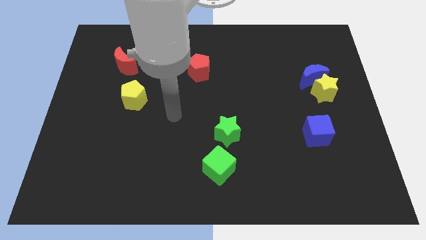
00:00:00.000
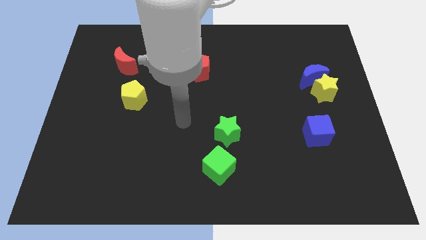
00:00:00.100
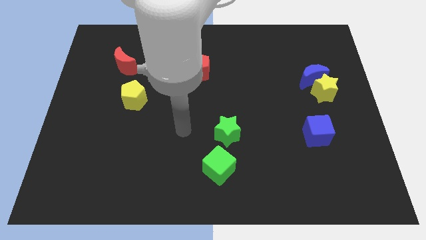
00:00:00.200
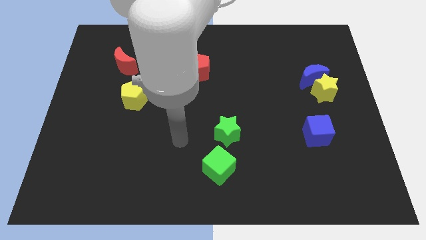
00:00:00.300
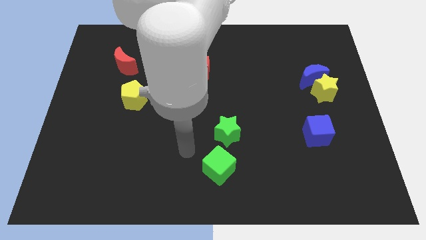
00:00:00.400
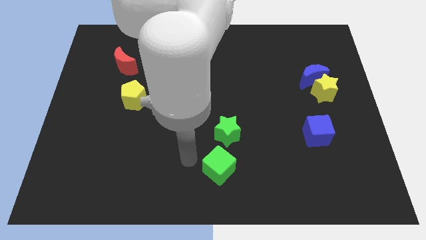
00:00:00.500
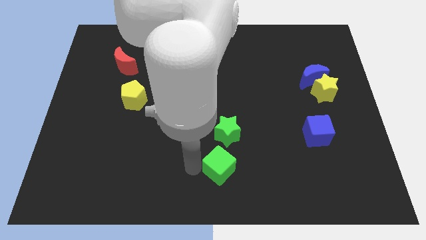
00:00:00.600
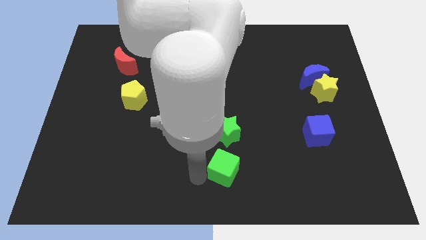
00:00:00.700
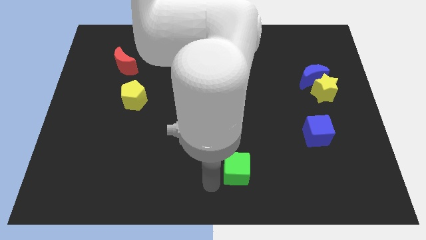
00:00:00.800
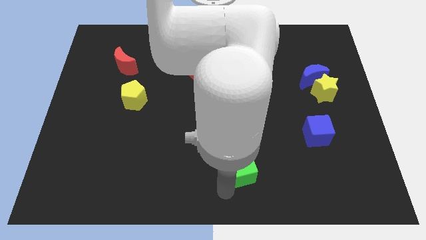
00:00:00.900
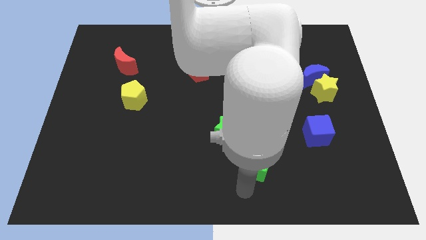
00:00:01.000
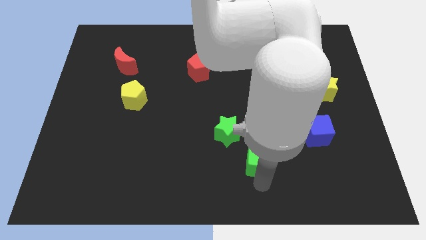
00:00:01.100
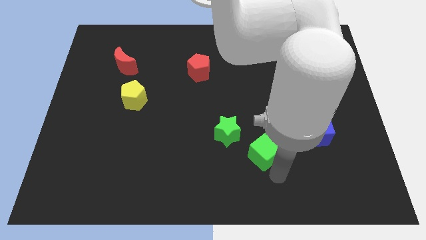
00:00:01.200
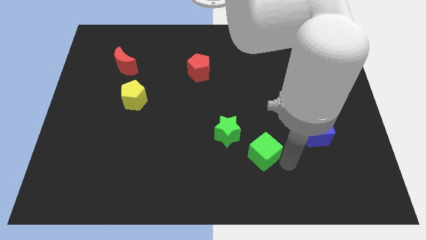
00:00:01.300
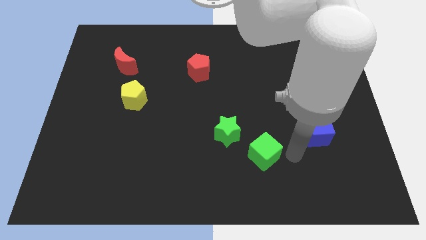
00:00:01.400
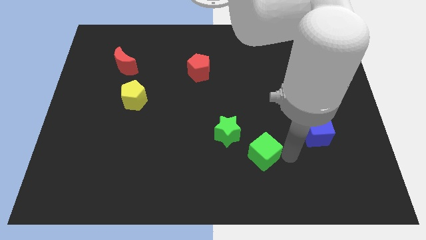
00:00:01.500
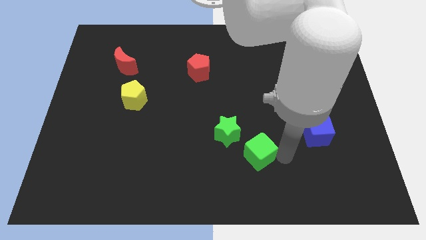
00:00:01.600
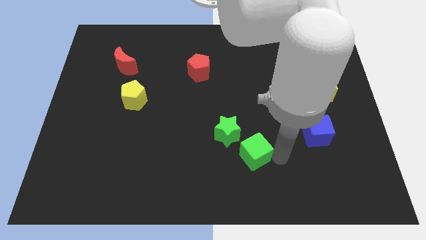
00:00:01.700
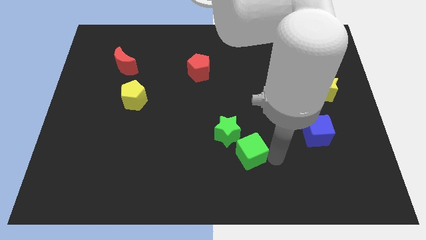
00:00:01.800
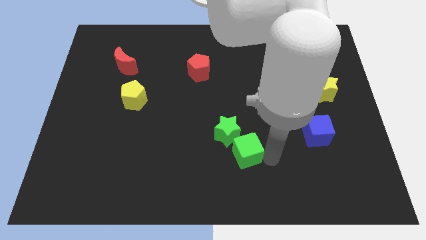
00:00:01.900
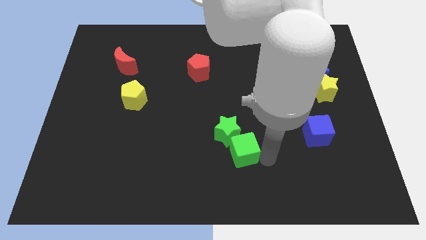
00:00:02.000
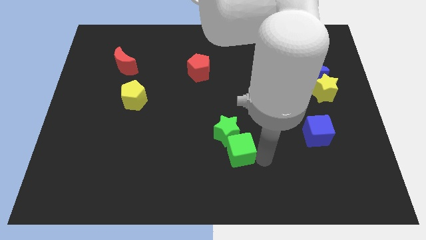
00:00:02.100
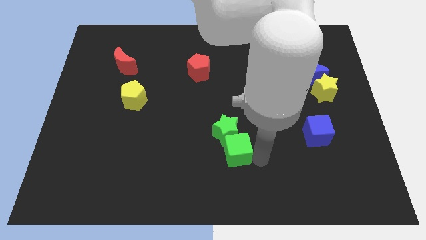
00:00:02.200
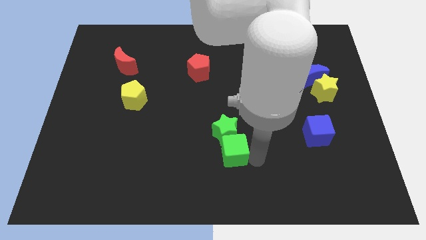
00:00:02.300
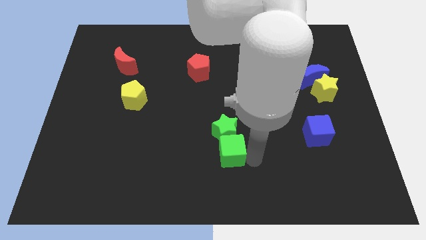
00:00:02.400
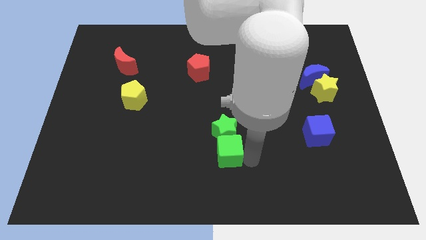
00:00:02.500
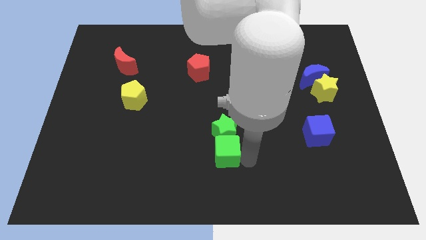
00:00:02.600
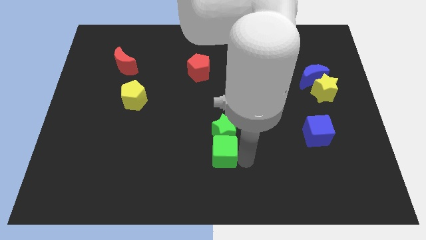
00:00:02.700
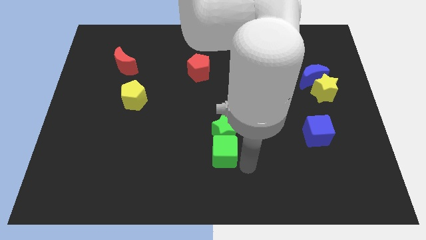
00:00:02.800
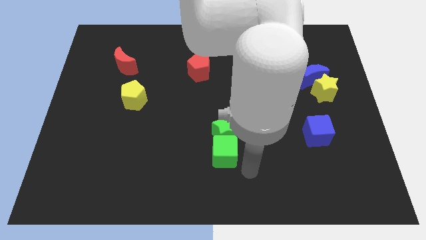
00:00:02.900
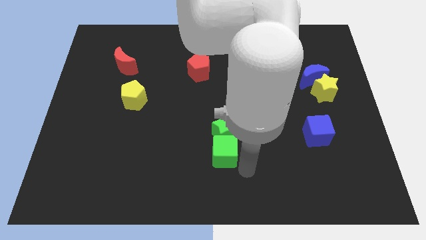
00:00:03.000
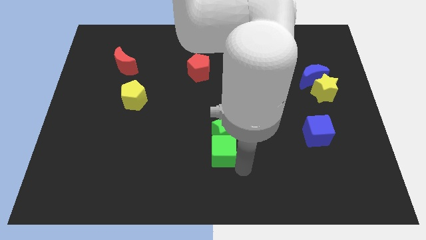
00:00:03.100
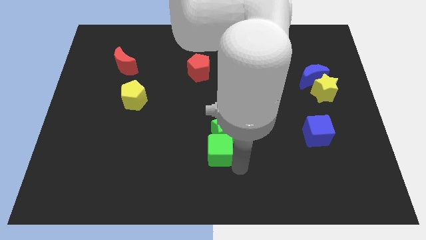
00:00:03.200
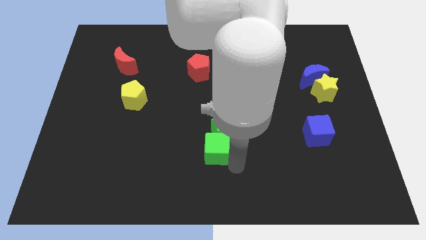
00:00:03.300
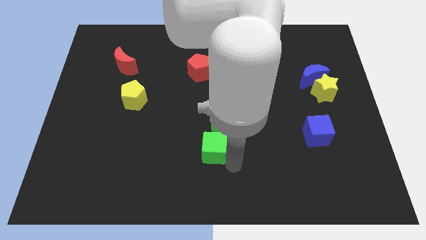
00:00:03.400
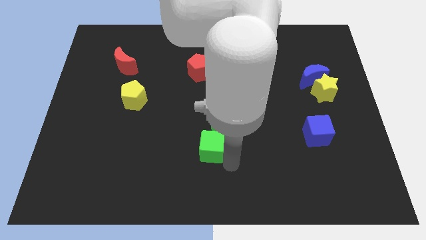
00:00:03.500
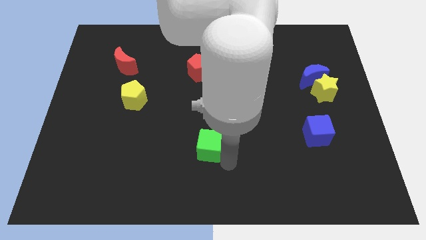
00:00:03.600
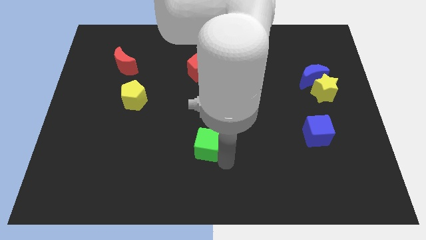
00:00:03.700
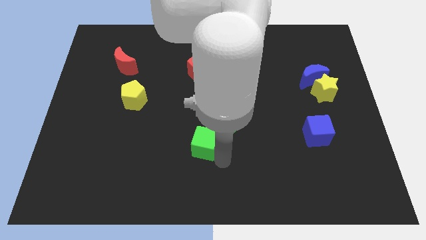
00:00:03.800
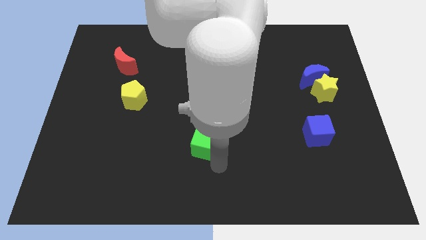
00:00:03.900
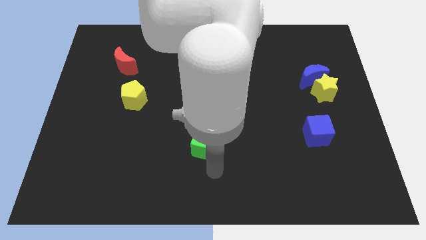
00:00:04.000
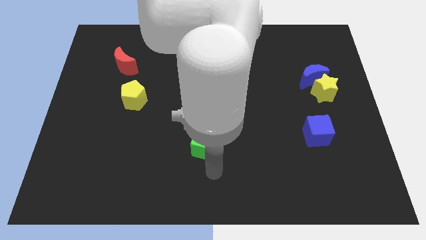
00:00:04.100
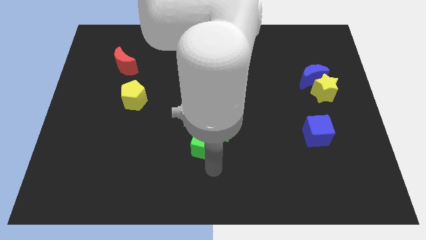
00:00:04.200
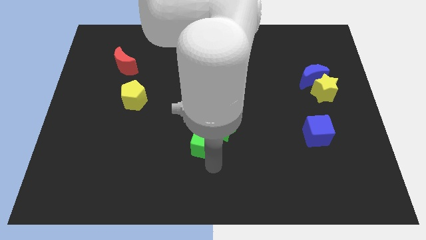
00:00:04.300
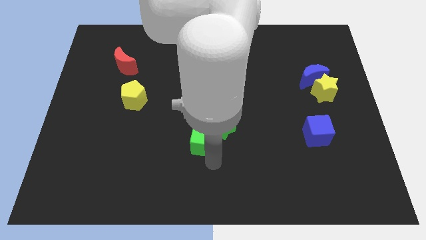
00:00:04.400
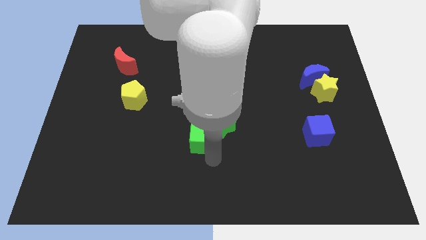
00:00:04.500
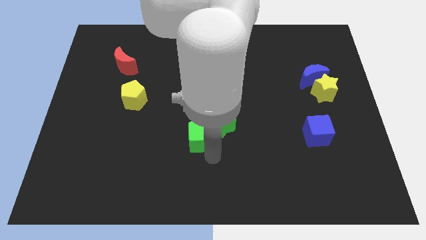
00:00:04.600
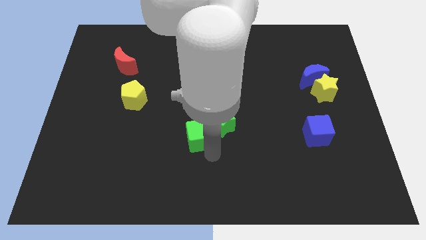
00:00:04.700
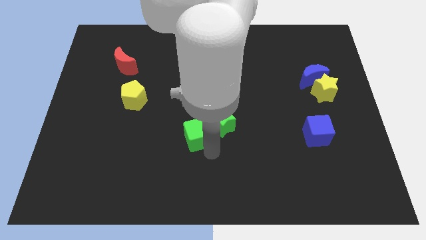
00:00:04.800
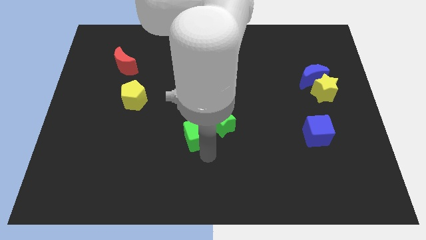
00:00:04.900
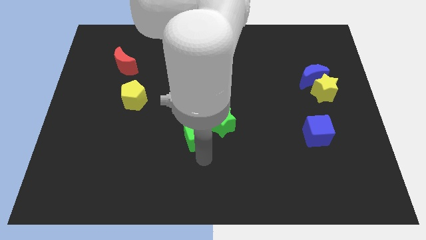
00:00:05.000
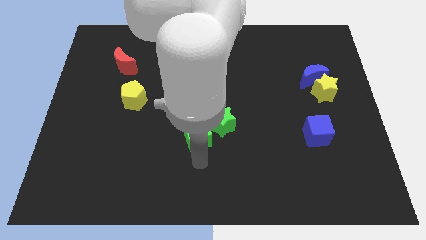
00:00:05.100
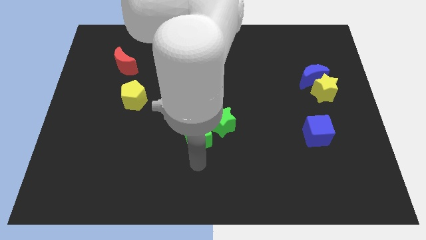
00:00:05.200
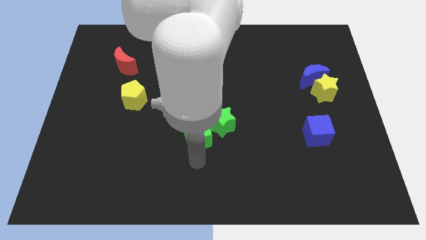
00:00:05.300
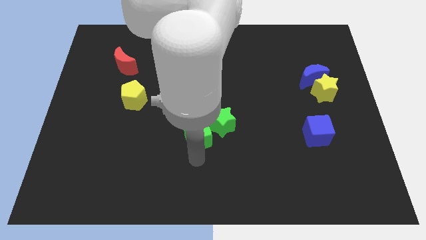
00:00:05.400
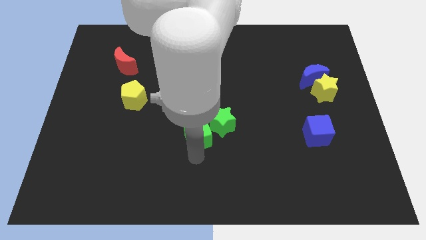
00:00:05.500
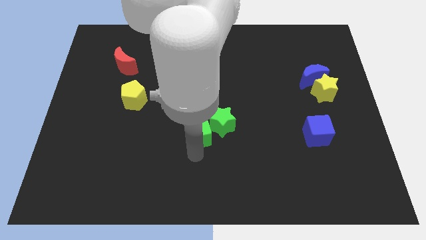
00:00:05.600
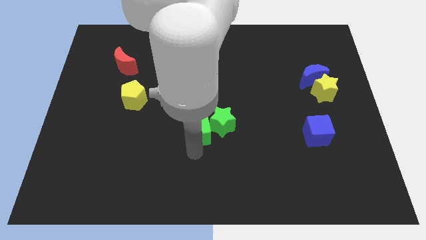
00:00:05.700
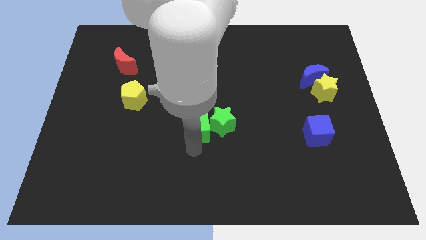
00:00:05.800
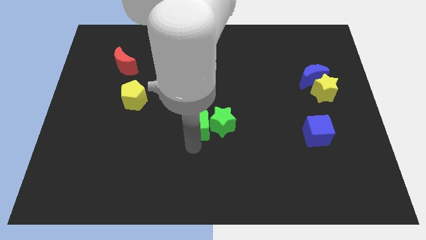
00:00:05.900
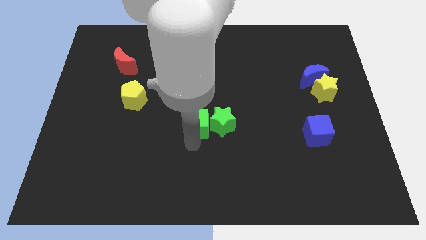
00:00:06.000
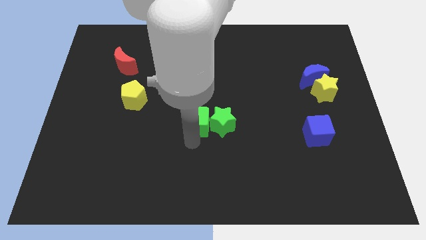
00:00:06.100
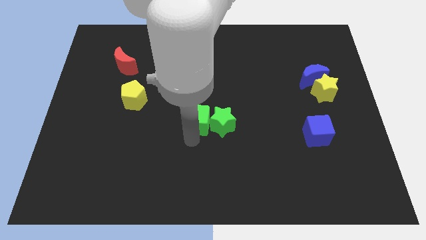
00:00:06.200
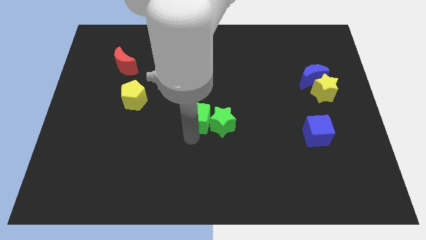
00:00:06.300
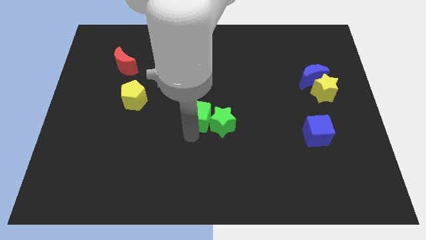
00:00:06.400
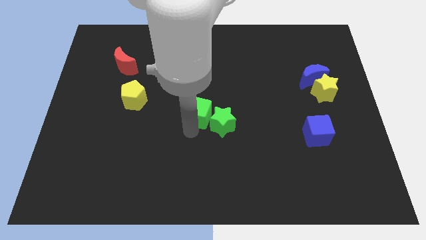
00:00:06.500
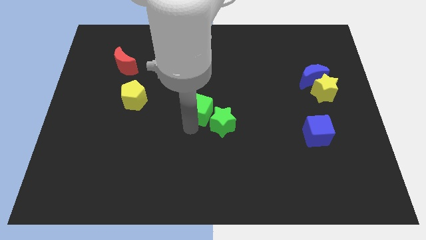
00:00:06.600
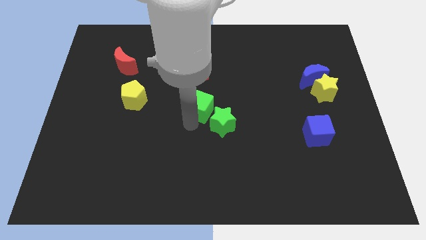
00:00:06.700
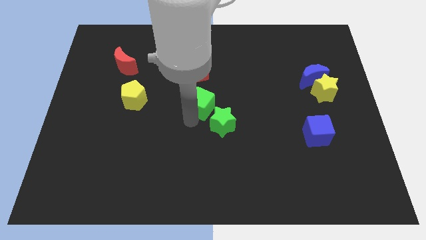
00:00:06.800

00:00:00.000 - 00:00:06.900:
move the green cube to the top side of the green star

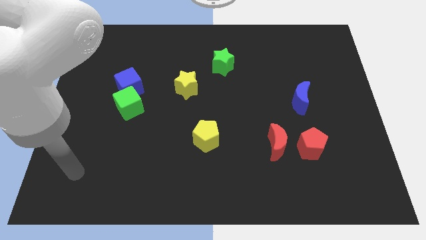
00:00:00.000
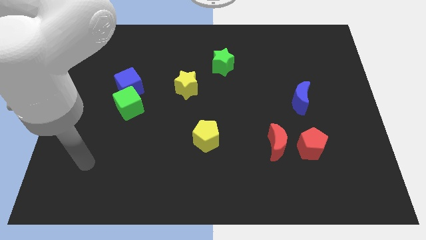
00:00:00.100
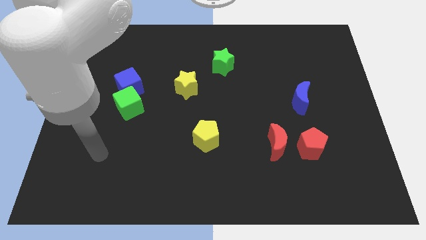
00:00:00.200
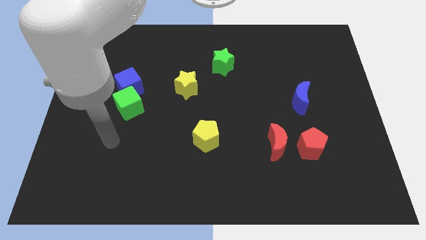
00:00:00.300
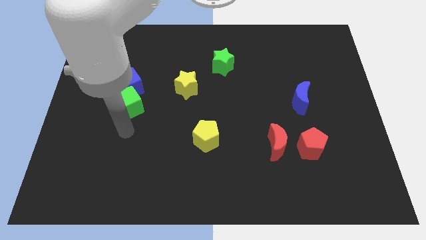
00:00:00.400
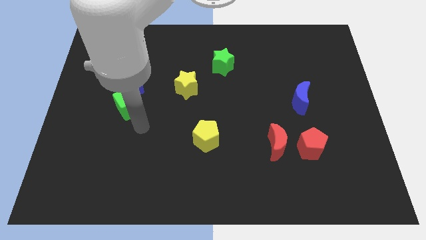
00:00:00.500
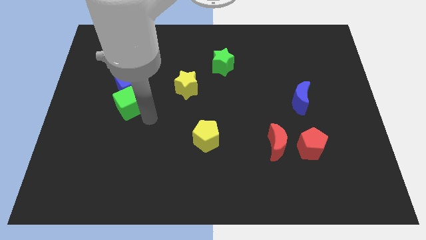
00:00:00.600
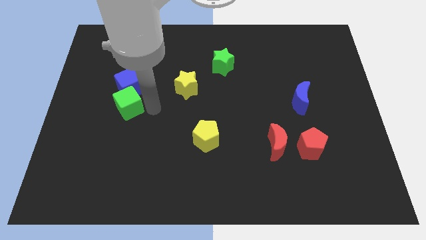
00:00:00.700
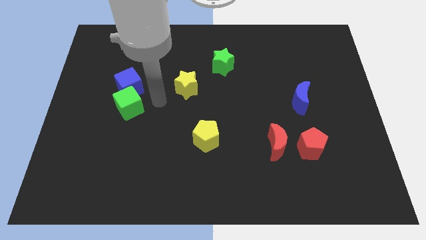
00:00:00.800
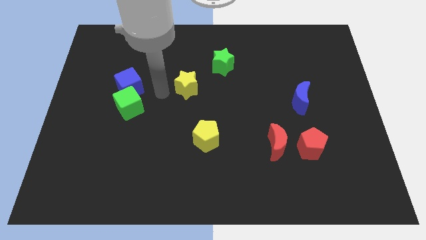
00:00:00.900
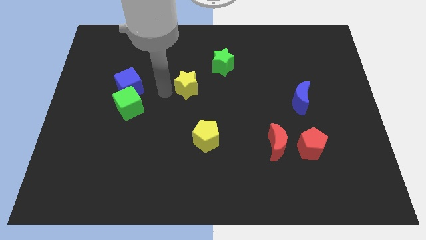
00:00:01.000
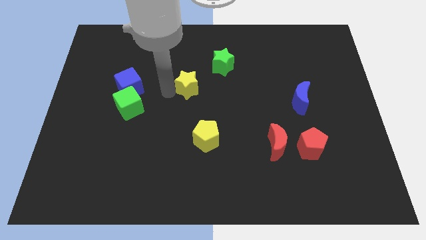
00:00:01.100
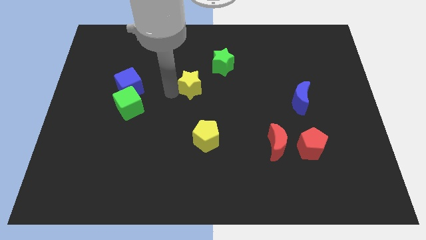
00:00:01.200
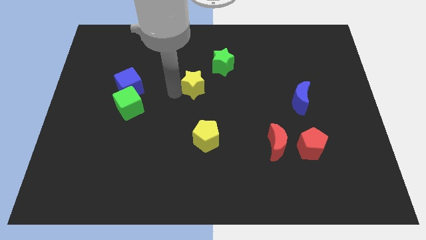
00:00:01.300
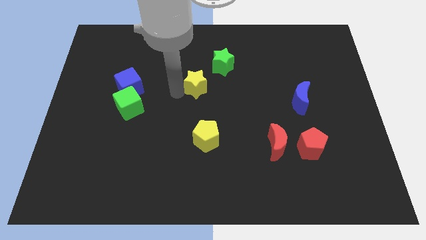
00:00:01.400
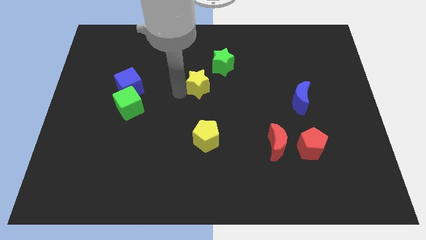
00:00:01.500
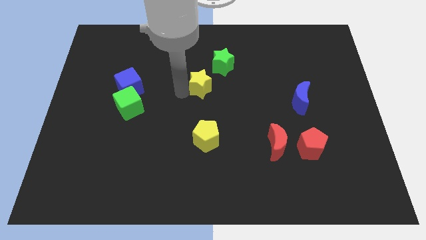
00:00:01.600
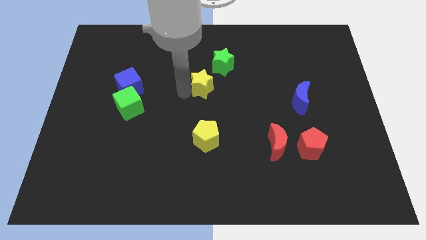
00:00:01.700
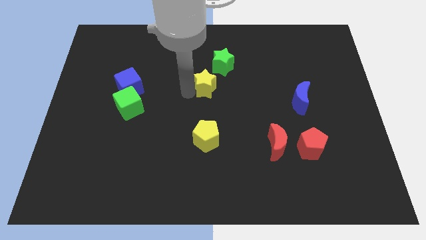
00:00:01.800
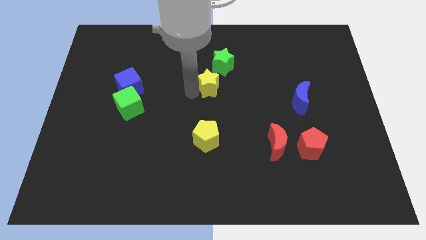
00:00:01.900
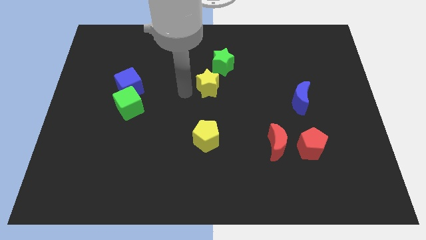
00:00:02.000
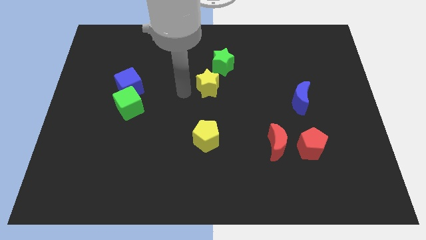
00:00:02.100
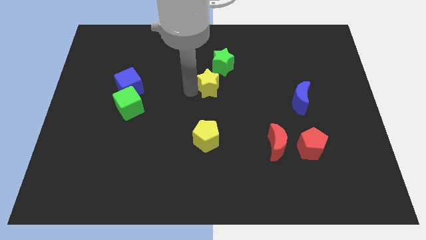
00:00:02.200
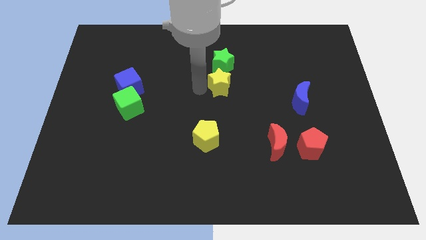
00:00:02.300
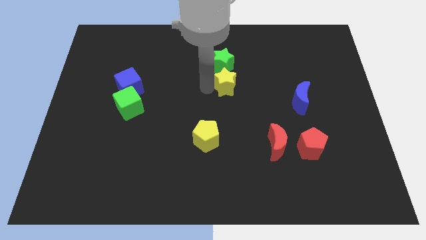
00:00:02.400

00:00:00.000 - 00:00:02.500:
push the yellow star to the bottom right side of the green star
